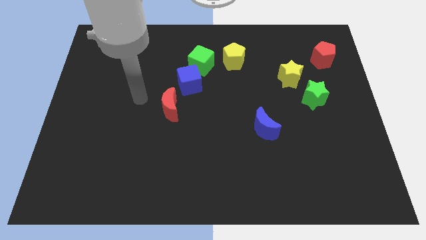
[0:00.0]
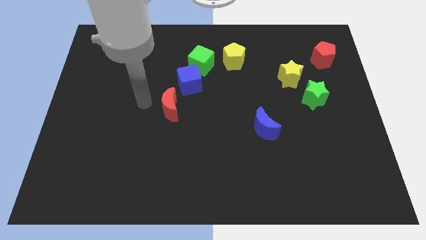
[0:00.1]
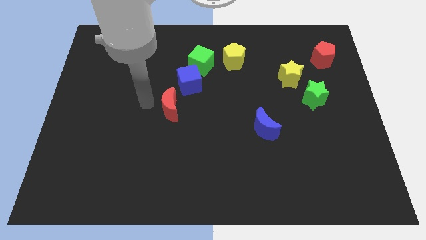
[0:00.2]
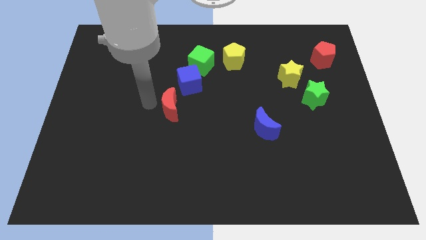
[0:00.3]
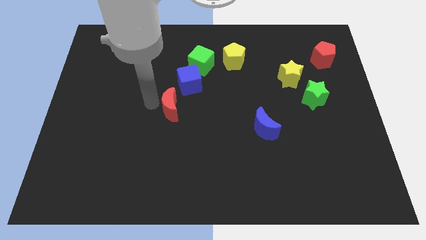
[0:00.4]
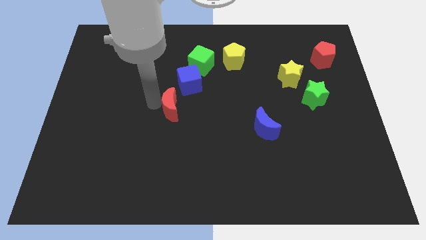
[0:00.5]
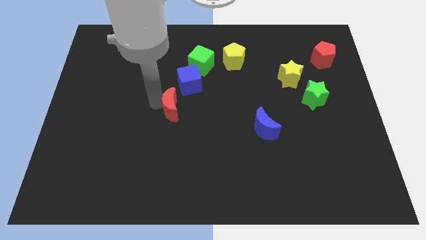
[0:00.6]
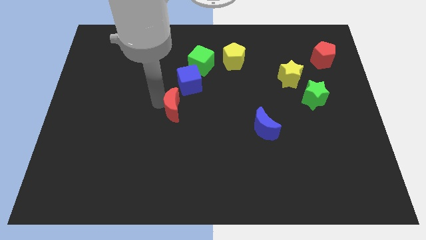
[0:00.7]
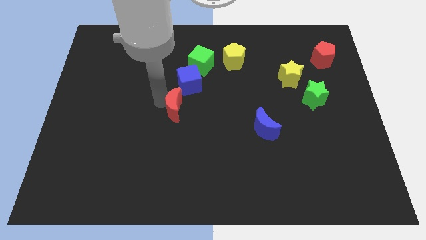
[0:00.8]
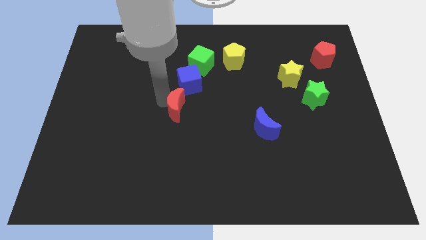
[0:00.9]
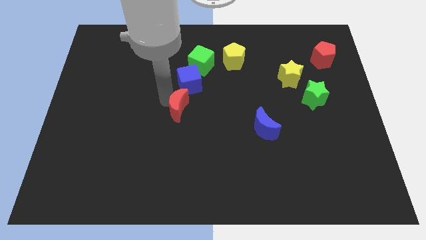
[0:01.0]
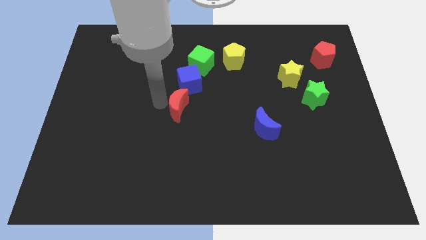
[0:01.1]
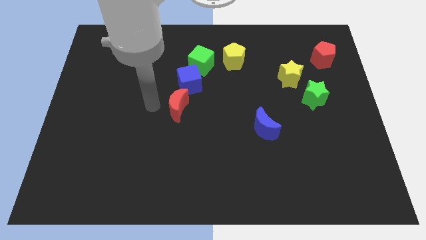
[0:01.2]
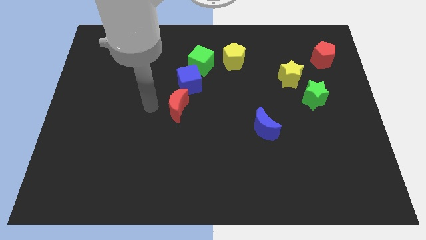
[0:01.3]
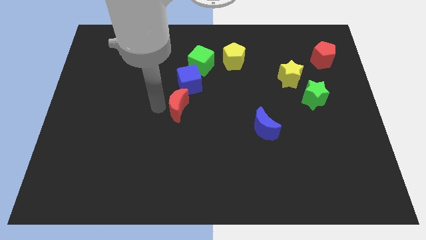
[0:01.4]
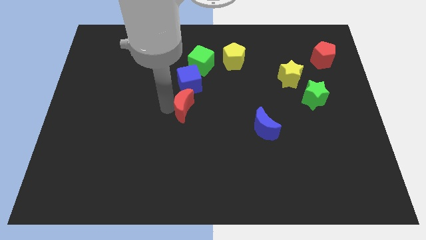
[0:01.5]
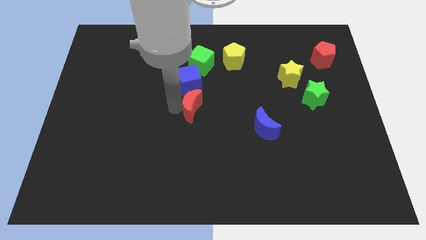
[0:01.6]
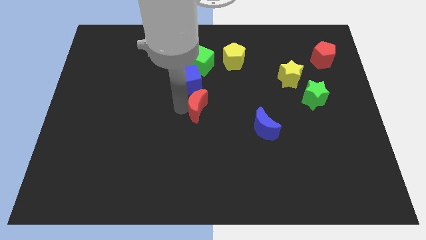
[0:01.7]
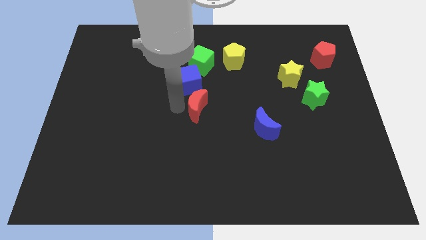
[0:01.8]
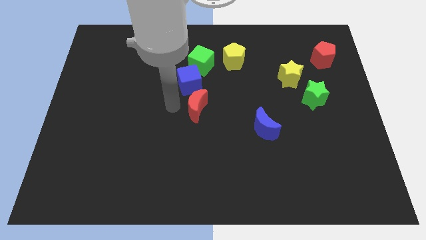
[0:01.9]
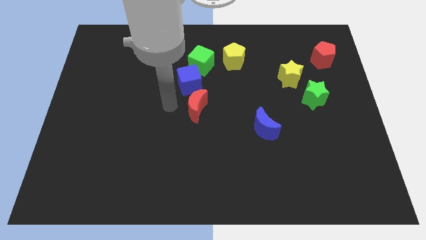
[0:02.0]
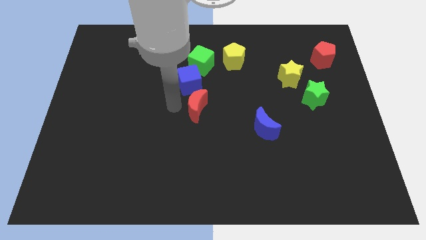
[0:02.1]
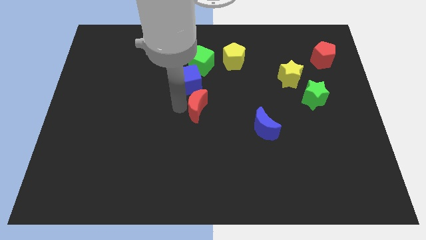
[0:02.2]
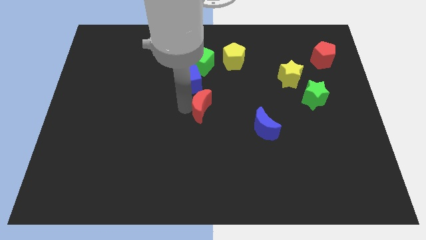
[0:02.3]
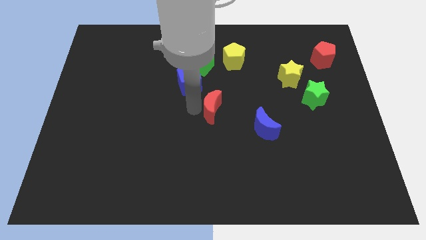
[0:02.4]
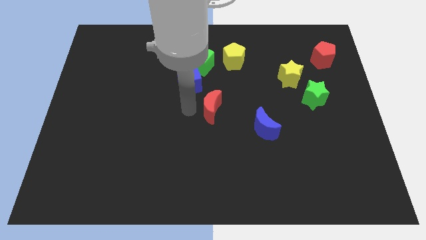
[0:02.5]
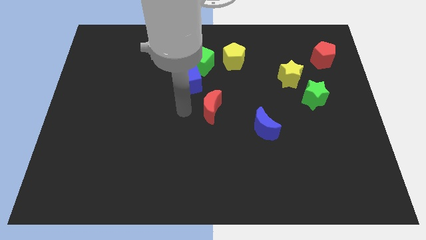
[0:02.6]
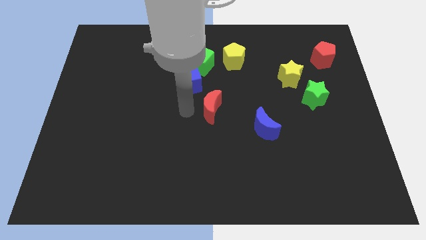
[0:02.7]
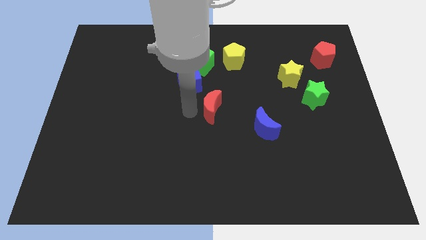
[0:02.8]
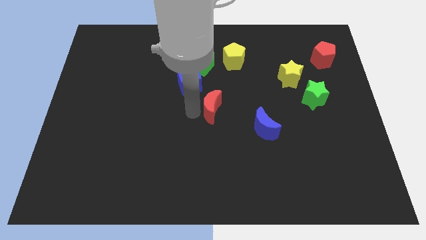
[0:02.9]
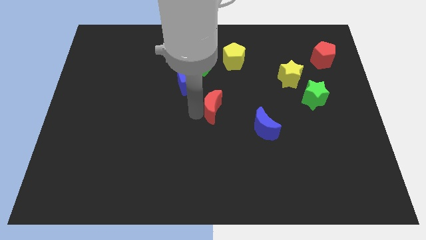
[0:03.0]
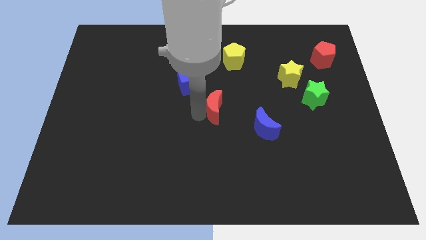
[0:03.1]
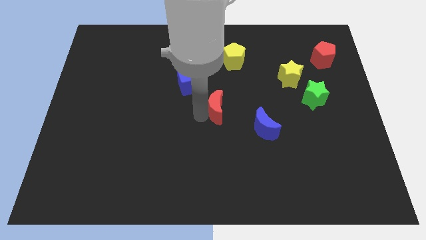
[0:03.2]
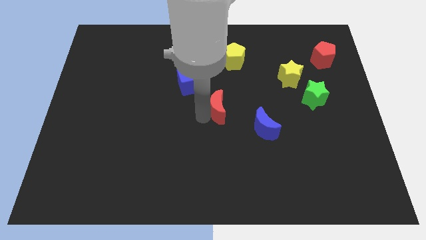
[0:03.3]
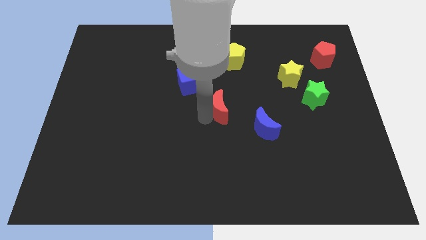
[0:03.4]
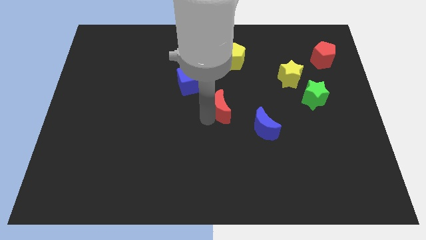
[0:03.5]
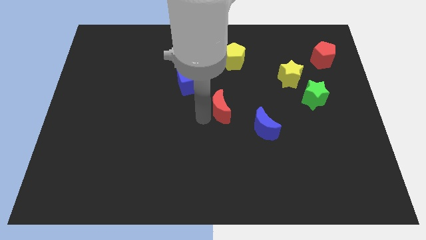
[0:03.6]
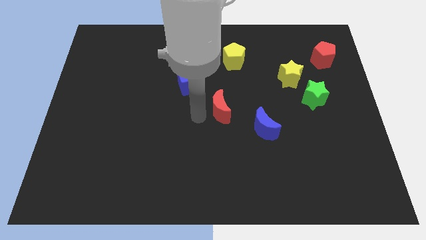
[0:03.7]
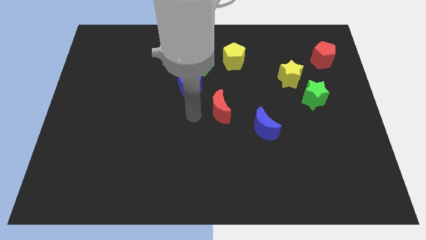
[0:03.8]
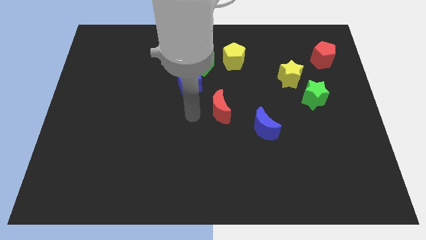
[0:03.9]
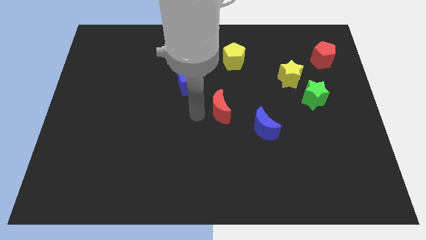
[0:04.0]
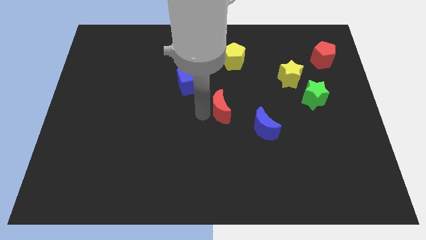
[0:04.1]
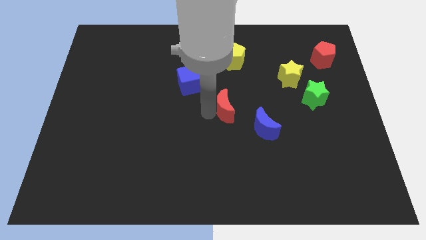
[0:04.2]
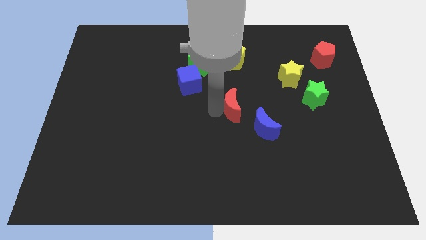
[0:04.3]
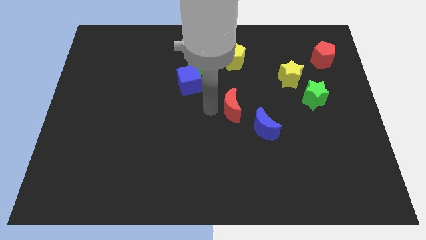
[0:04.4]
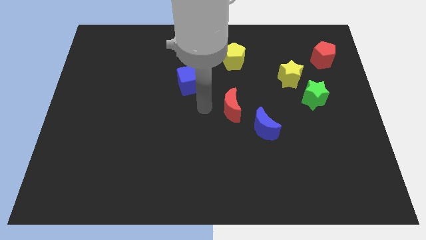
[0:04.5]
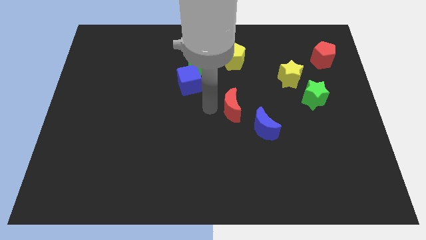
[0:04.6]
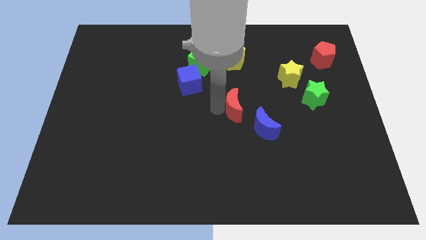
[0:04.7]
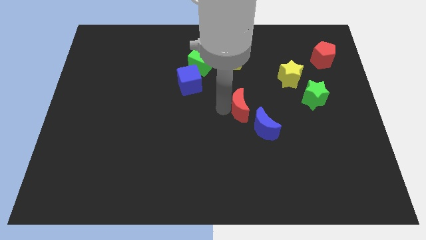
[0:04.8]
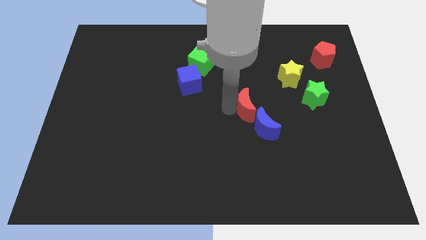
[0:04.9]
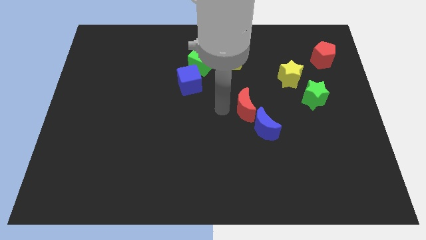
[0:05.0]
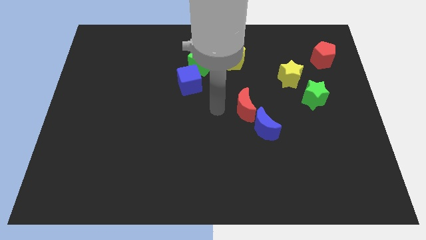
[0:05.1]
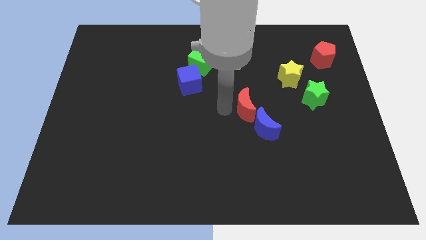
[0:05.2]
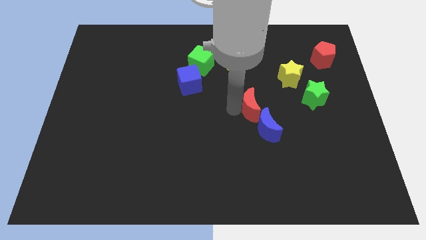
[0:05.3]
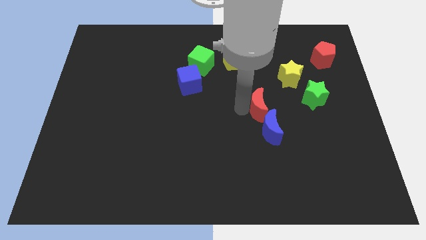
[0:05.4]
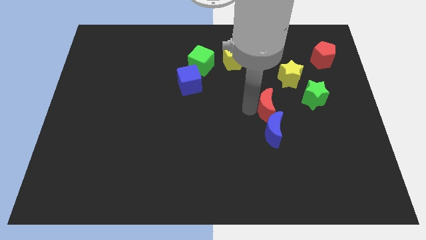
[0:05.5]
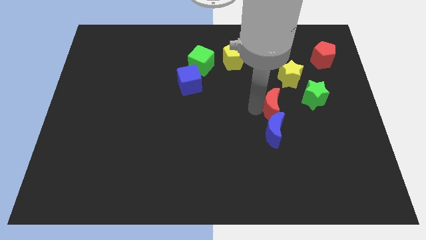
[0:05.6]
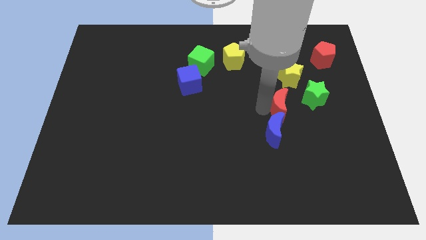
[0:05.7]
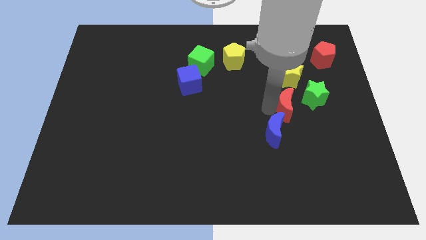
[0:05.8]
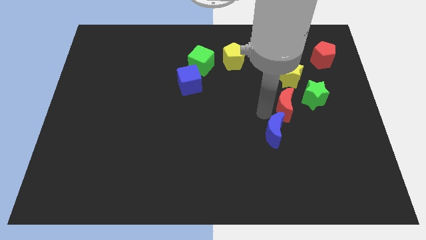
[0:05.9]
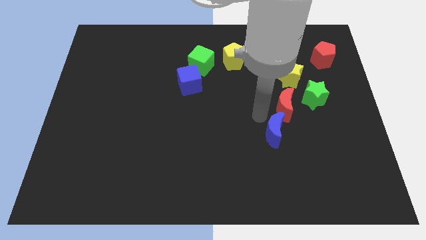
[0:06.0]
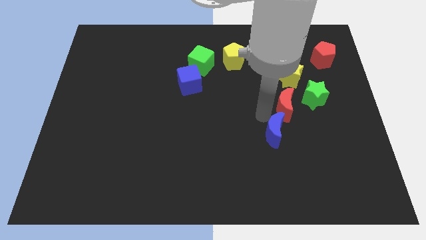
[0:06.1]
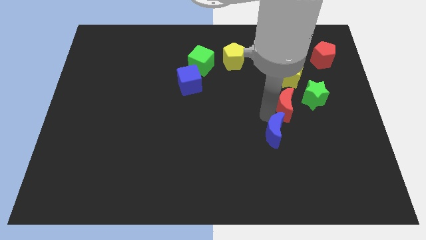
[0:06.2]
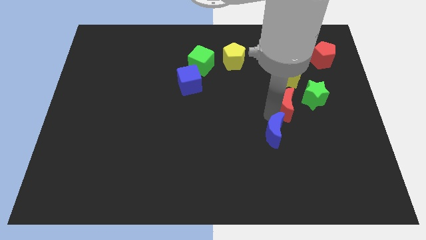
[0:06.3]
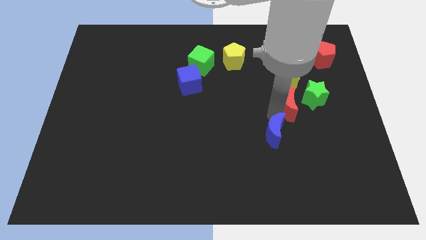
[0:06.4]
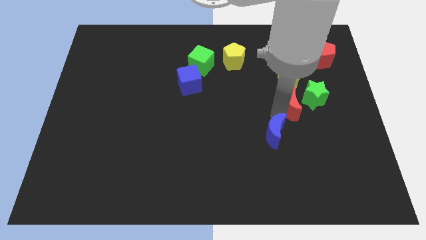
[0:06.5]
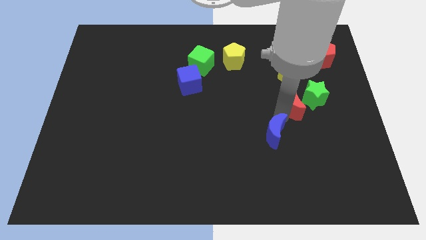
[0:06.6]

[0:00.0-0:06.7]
slide the red moon next to the green star

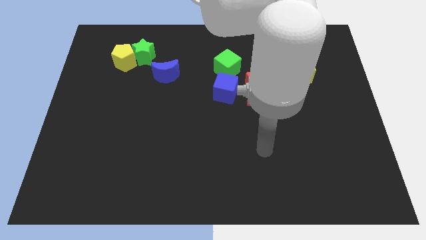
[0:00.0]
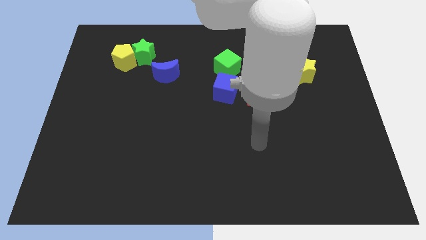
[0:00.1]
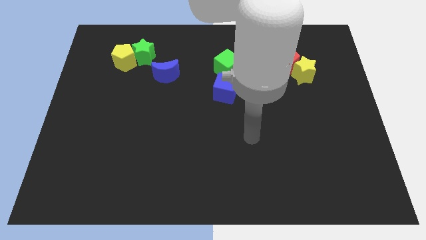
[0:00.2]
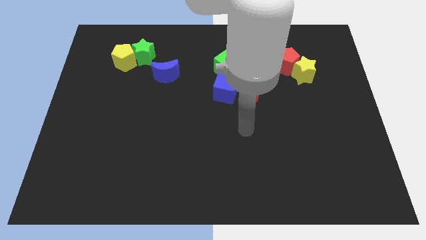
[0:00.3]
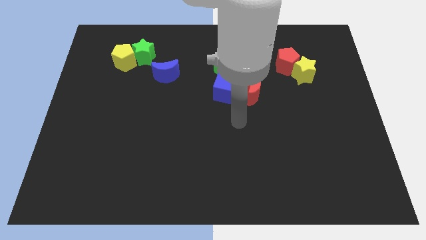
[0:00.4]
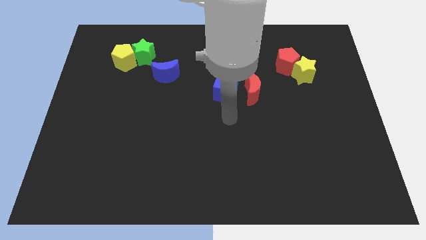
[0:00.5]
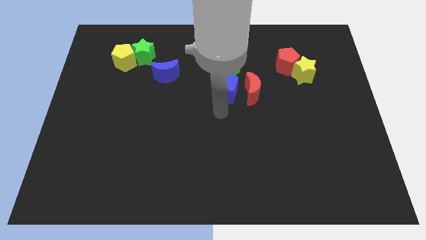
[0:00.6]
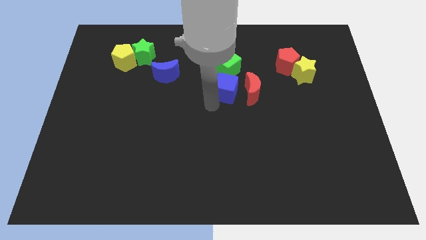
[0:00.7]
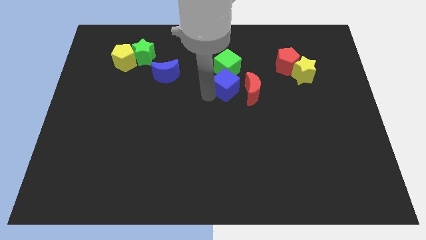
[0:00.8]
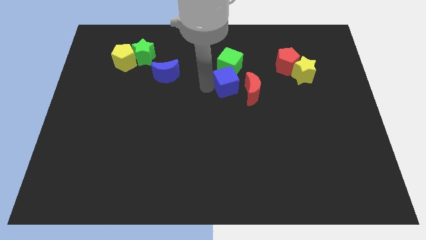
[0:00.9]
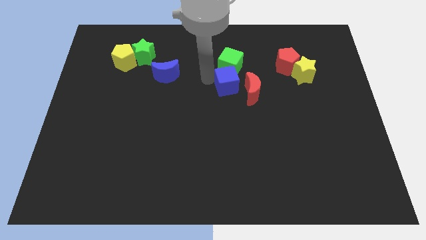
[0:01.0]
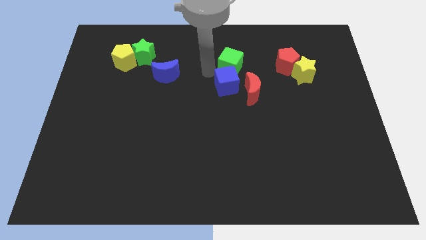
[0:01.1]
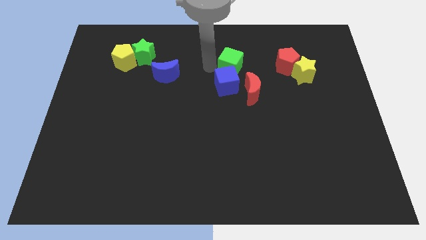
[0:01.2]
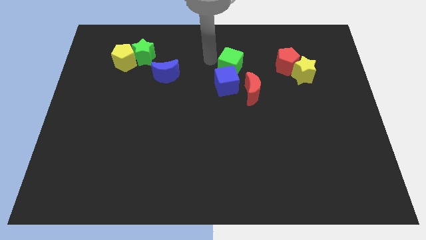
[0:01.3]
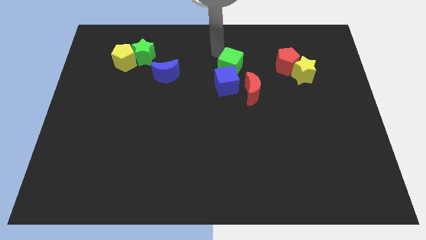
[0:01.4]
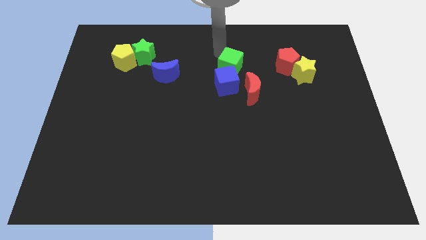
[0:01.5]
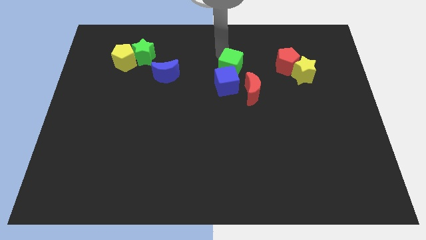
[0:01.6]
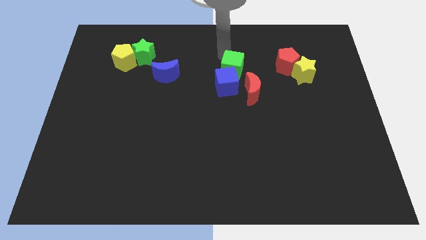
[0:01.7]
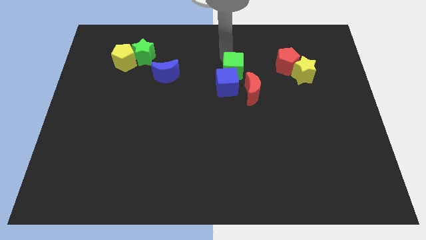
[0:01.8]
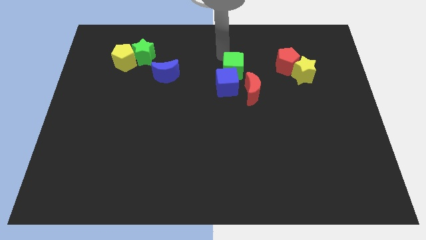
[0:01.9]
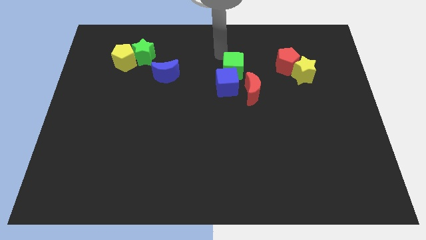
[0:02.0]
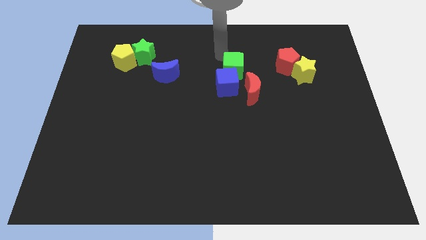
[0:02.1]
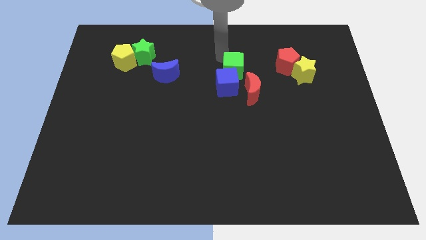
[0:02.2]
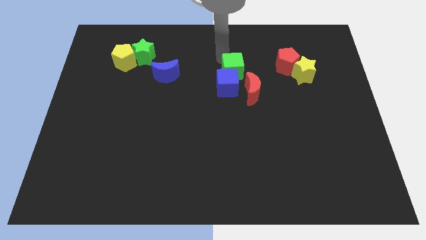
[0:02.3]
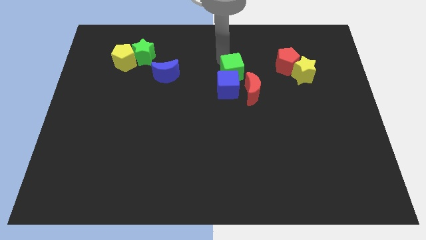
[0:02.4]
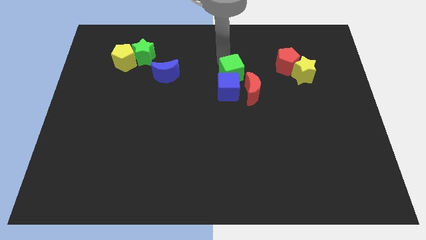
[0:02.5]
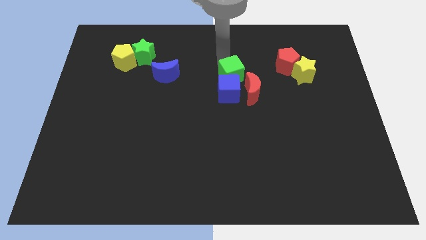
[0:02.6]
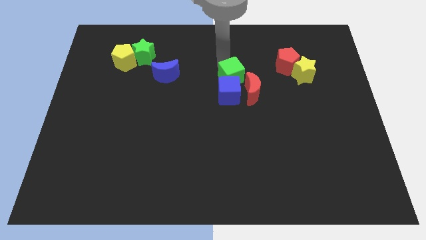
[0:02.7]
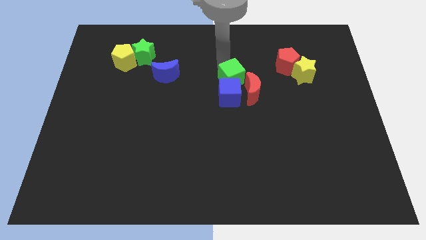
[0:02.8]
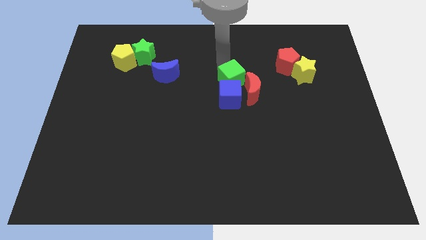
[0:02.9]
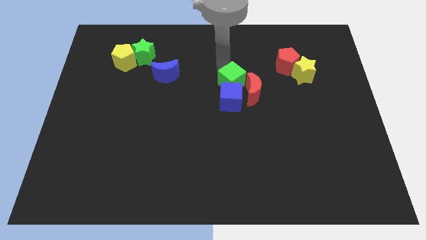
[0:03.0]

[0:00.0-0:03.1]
push the green cube towards the red moon
